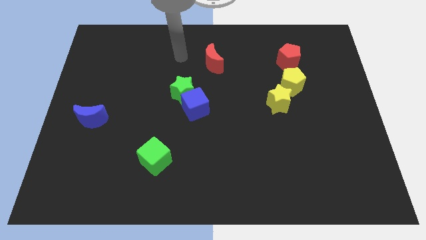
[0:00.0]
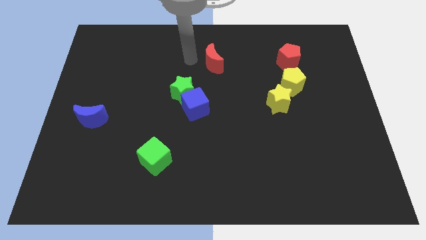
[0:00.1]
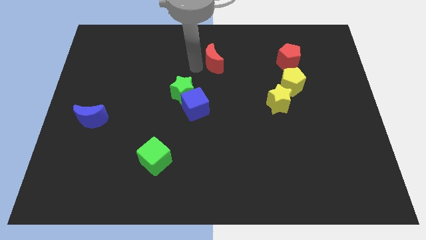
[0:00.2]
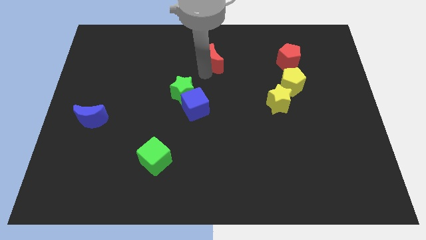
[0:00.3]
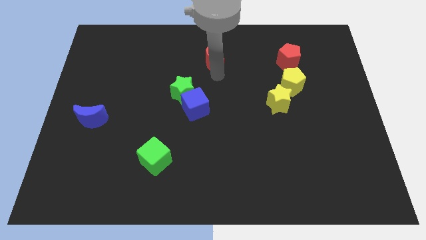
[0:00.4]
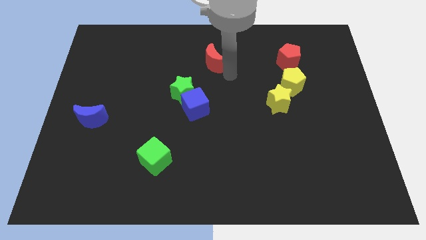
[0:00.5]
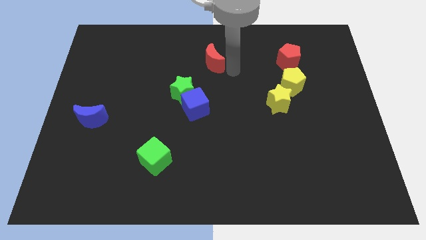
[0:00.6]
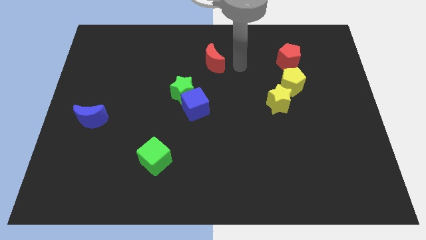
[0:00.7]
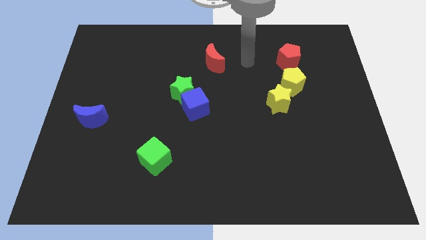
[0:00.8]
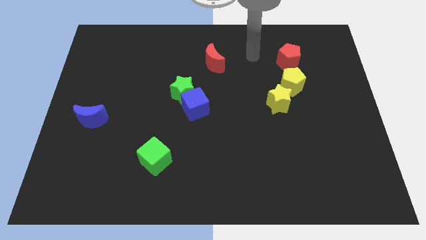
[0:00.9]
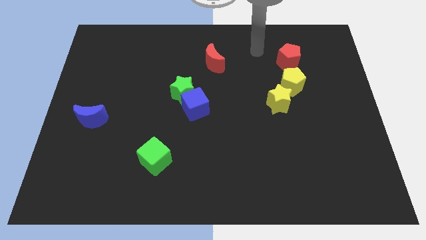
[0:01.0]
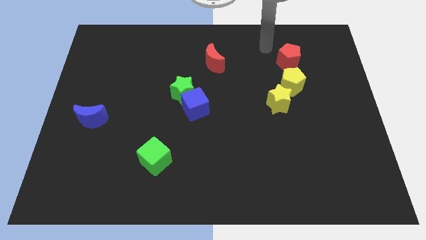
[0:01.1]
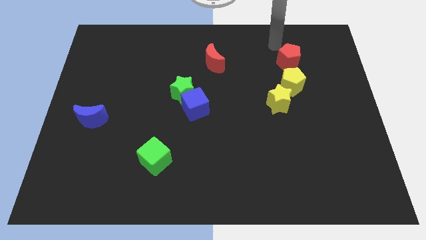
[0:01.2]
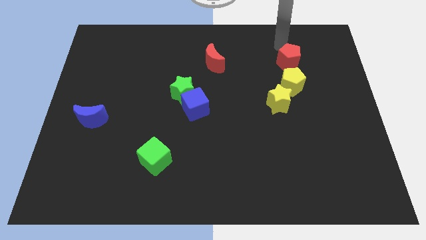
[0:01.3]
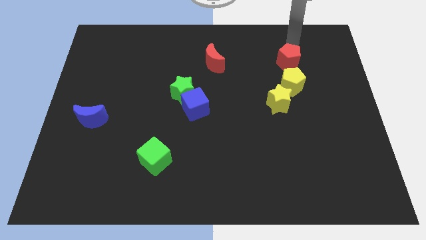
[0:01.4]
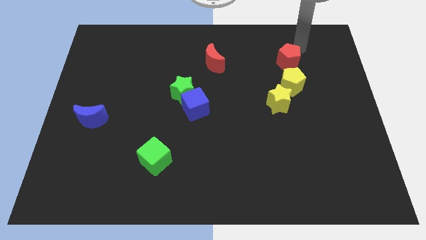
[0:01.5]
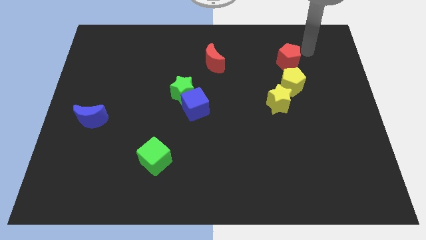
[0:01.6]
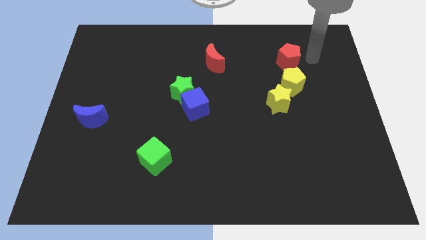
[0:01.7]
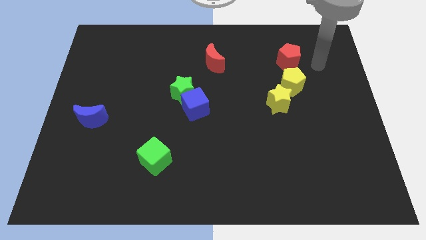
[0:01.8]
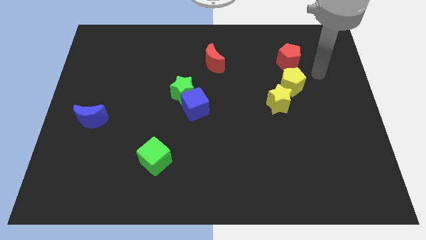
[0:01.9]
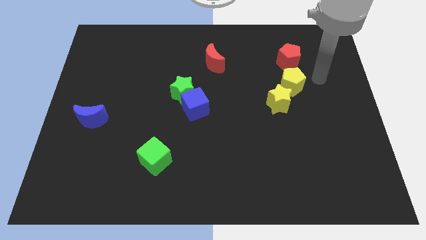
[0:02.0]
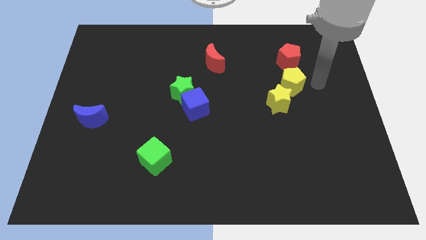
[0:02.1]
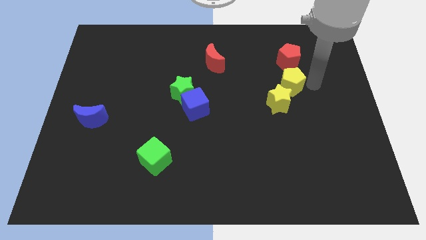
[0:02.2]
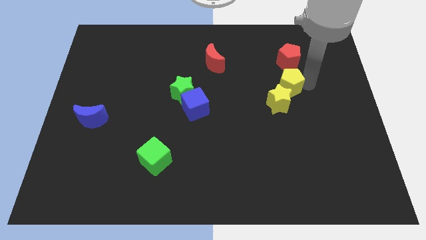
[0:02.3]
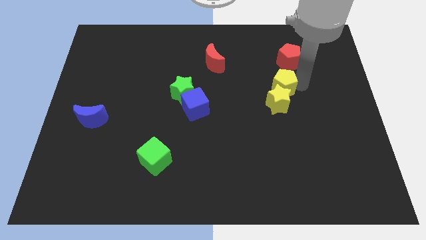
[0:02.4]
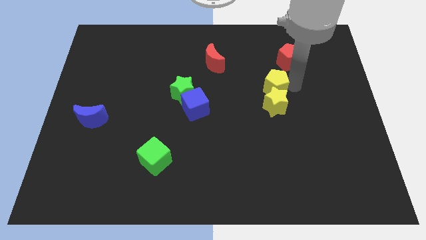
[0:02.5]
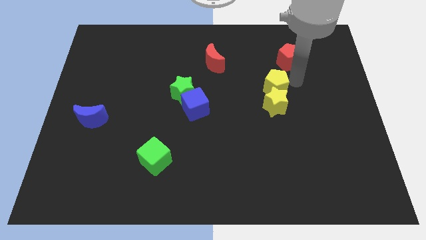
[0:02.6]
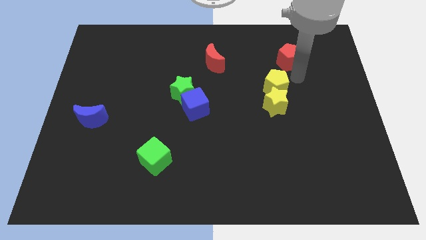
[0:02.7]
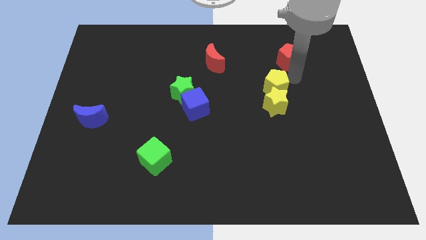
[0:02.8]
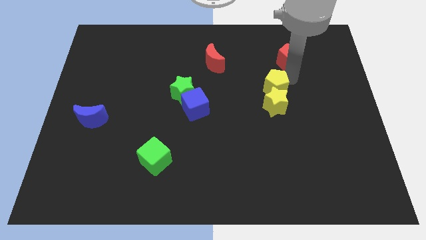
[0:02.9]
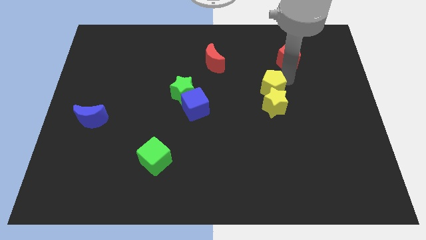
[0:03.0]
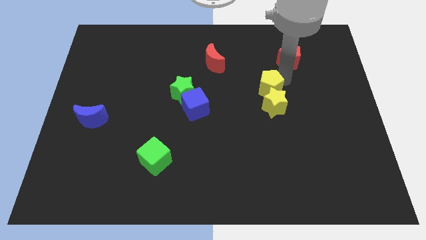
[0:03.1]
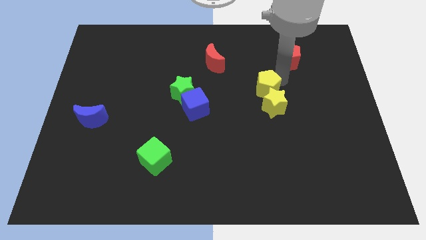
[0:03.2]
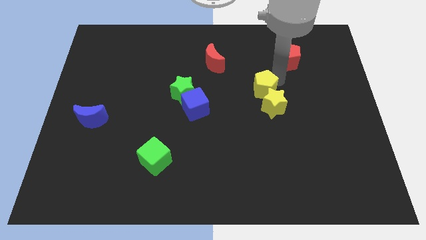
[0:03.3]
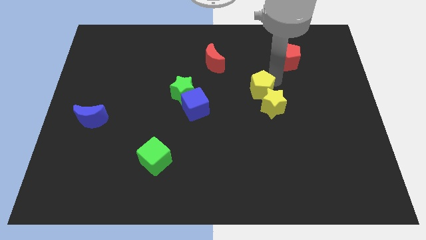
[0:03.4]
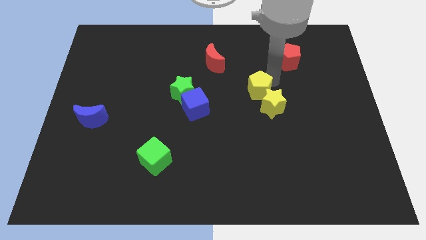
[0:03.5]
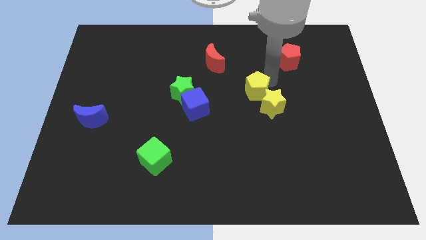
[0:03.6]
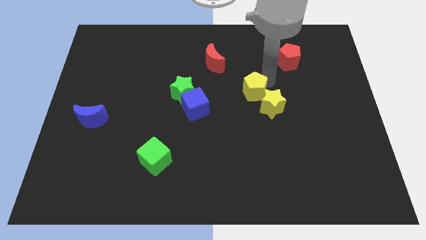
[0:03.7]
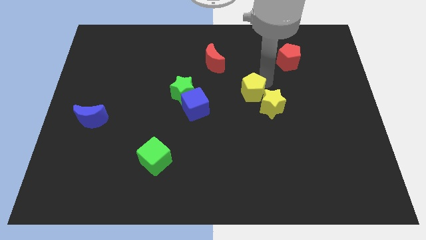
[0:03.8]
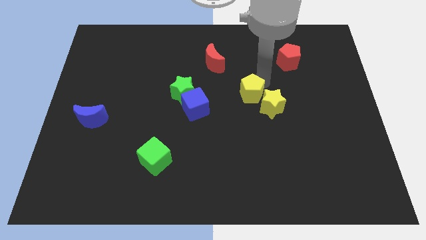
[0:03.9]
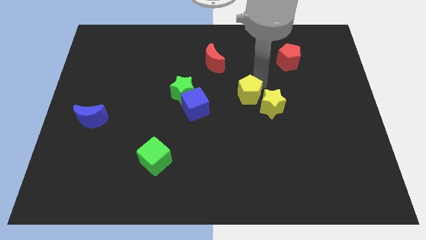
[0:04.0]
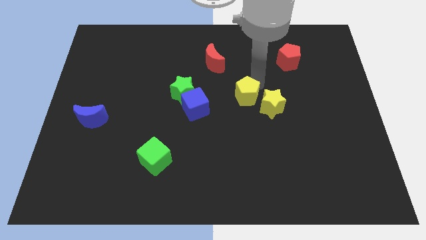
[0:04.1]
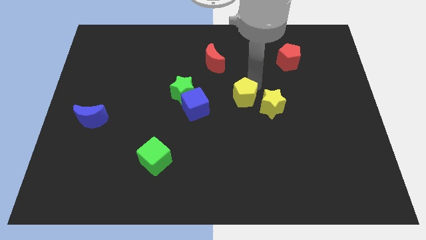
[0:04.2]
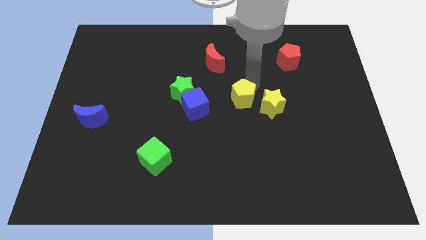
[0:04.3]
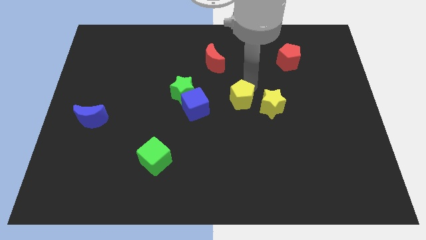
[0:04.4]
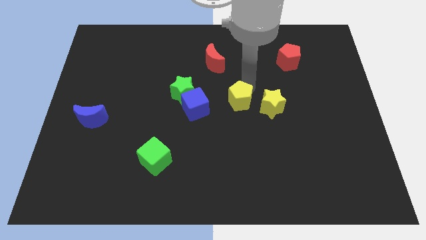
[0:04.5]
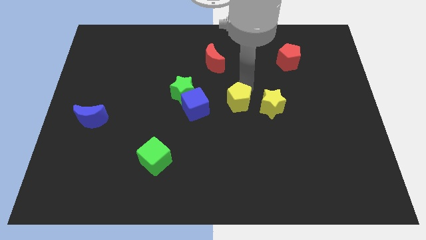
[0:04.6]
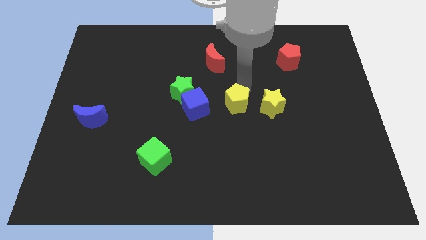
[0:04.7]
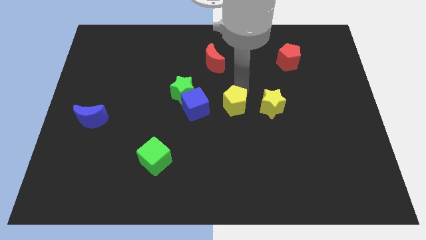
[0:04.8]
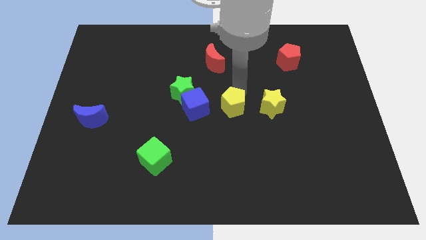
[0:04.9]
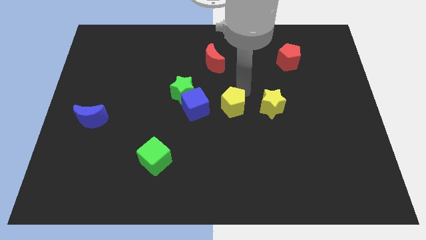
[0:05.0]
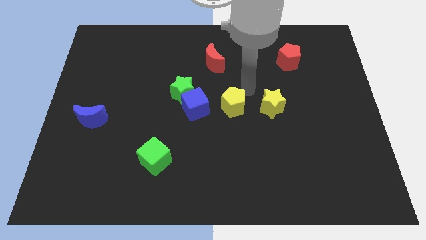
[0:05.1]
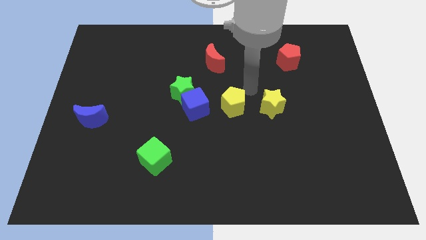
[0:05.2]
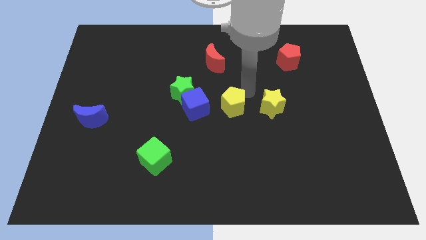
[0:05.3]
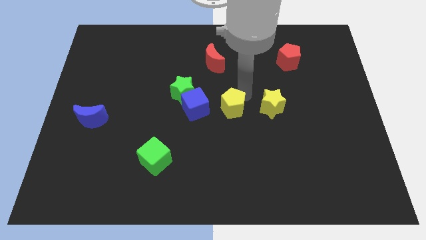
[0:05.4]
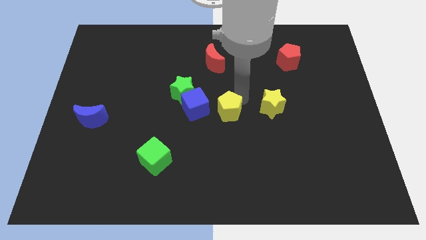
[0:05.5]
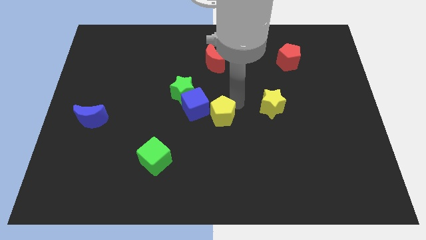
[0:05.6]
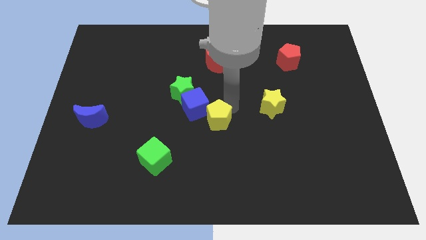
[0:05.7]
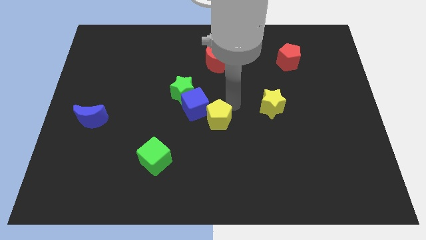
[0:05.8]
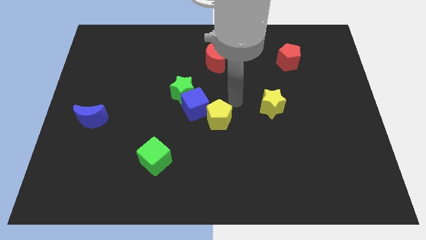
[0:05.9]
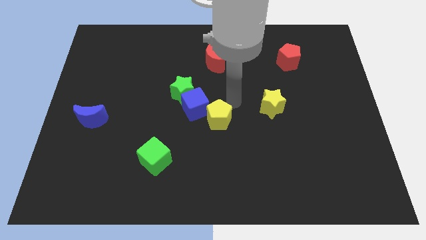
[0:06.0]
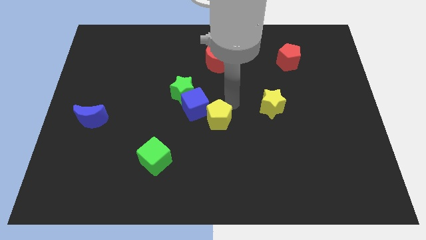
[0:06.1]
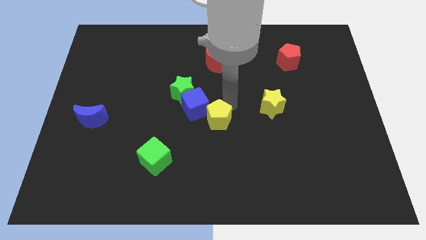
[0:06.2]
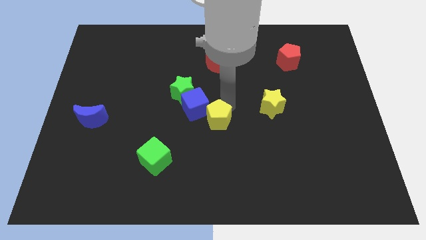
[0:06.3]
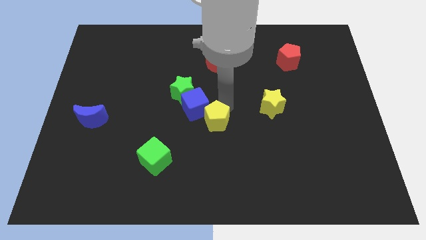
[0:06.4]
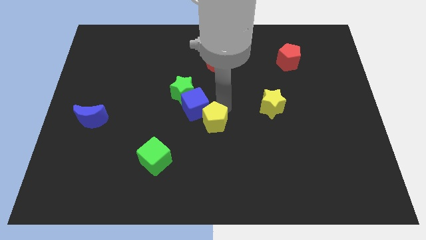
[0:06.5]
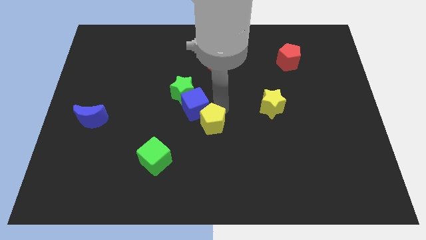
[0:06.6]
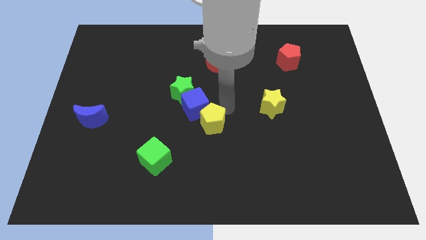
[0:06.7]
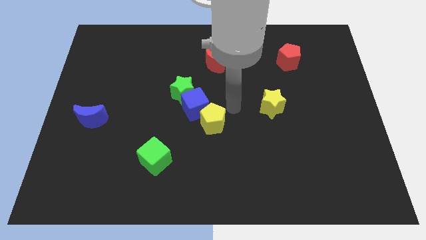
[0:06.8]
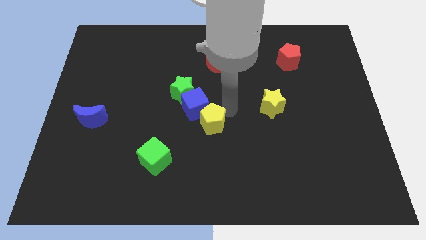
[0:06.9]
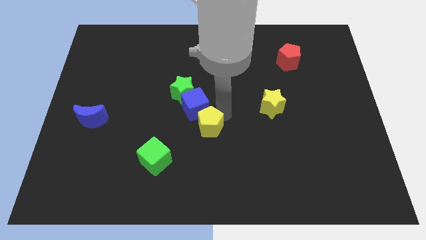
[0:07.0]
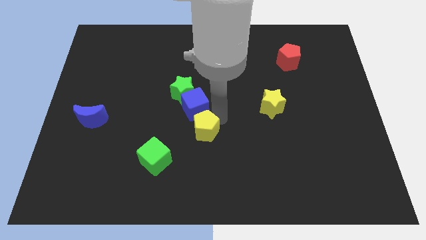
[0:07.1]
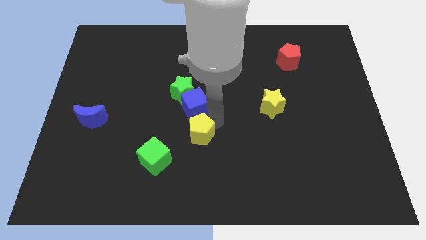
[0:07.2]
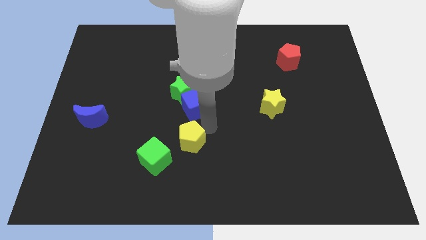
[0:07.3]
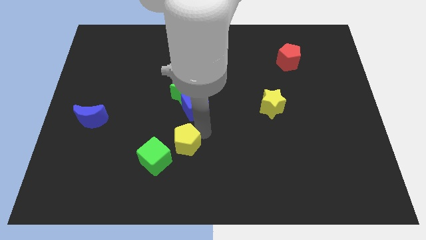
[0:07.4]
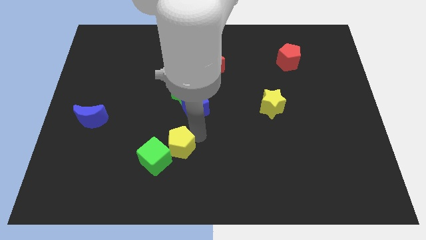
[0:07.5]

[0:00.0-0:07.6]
push the yellow pentagon close to the green cube
